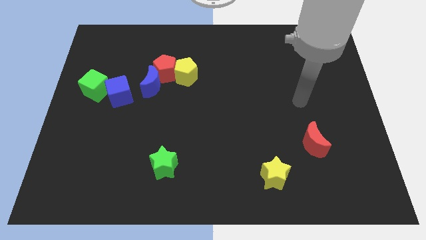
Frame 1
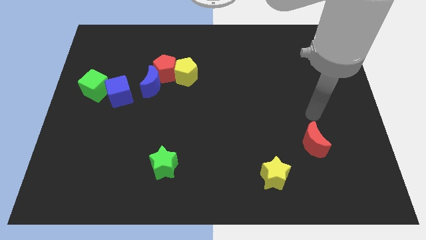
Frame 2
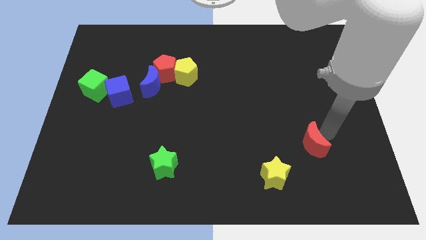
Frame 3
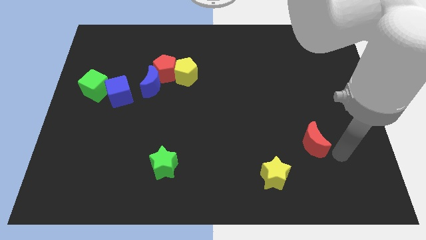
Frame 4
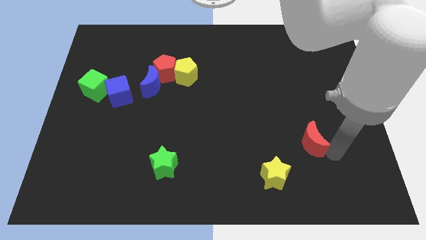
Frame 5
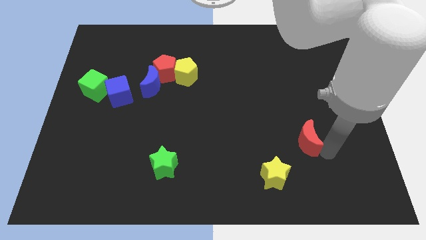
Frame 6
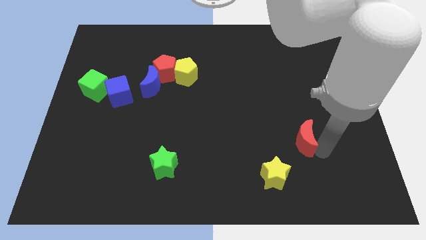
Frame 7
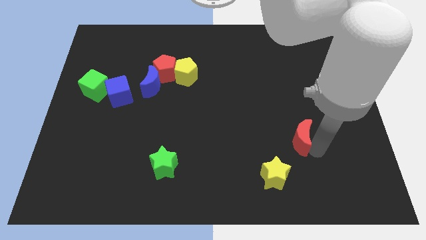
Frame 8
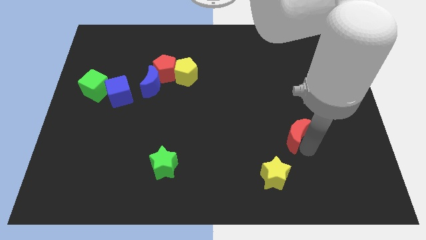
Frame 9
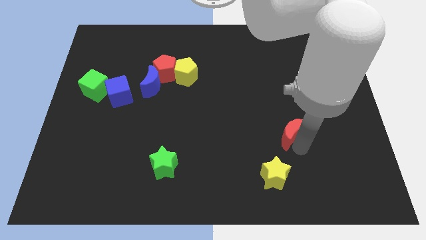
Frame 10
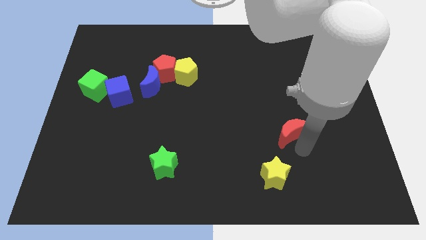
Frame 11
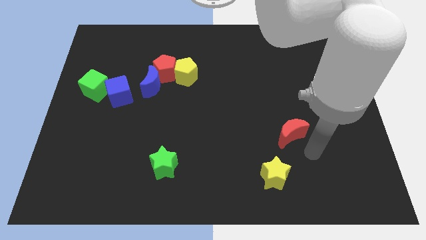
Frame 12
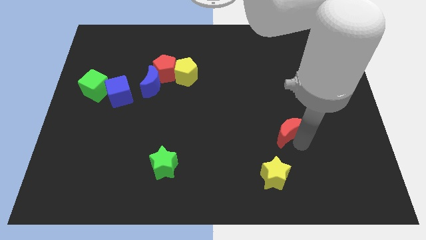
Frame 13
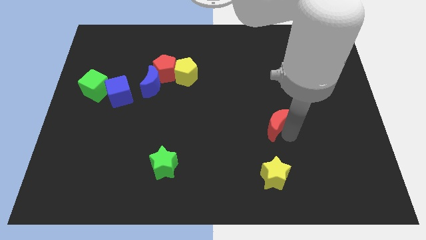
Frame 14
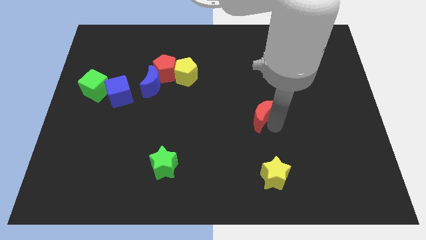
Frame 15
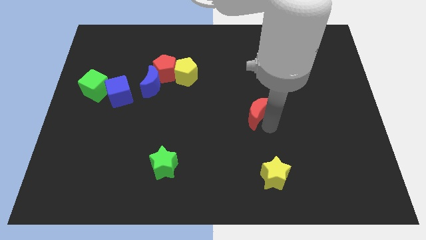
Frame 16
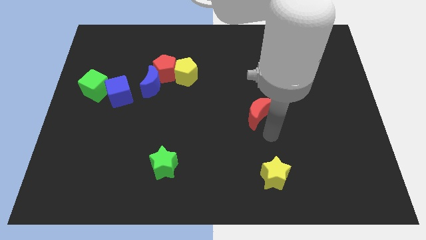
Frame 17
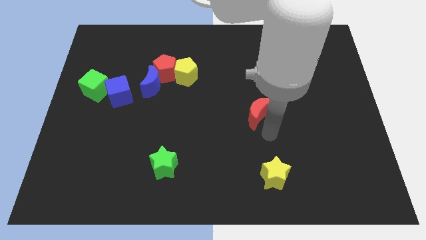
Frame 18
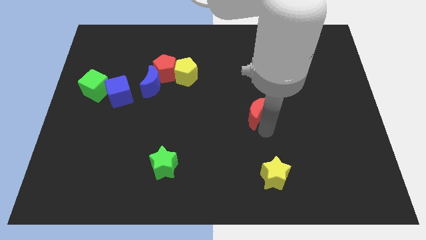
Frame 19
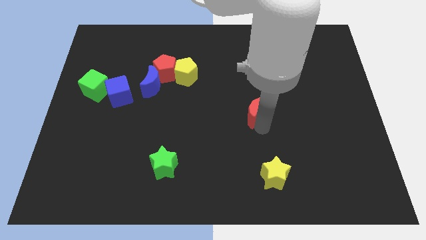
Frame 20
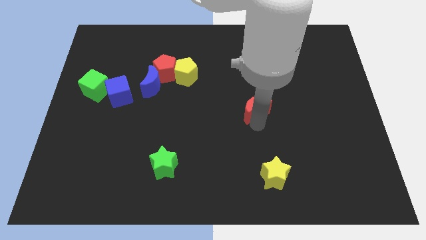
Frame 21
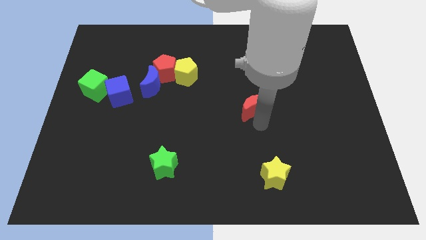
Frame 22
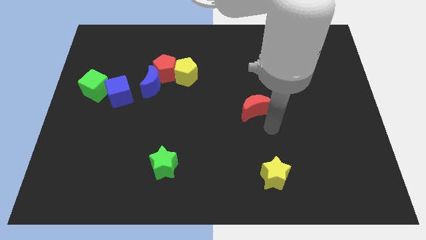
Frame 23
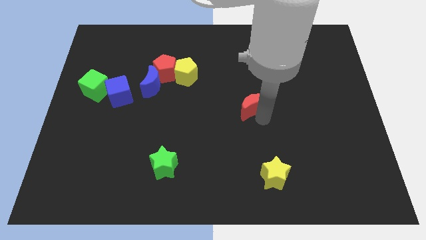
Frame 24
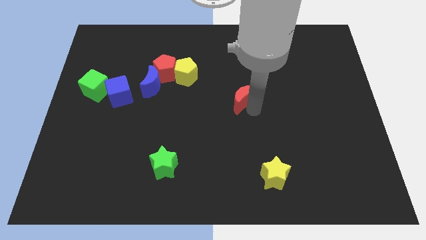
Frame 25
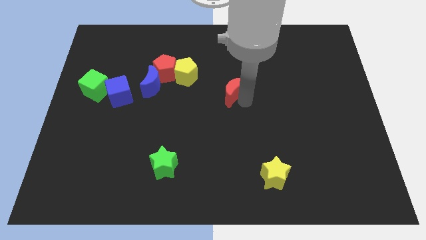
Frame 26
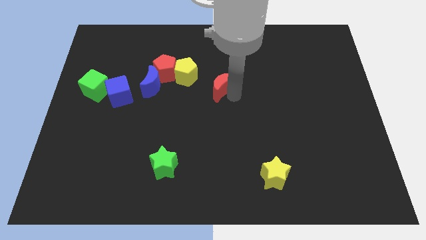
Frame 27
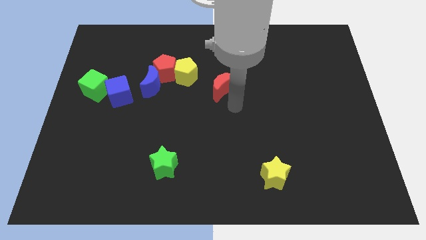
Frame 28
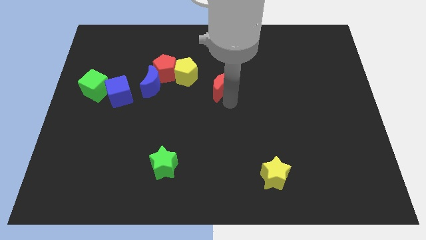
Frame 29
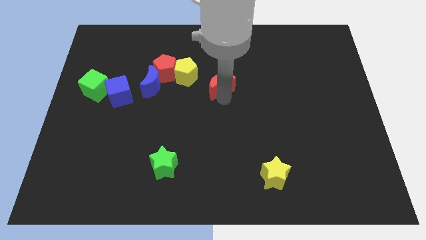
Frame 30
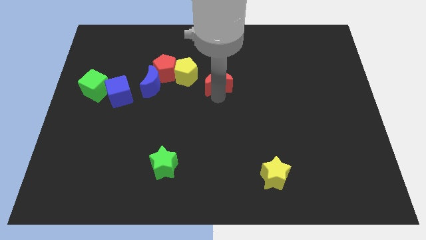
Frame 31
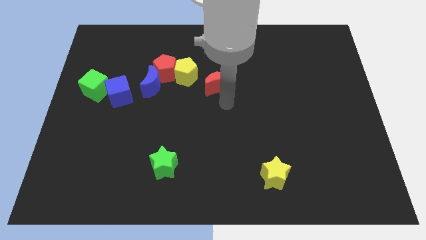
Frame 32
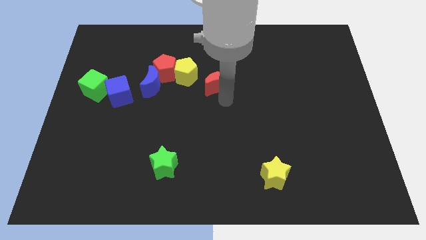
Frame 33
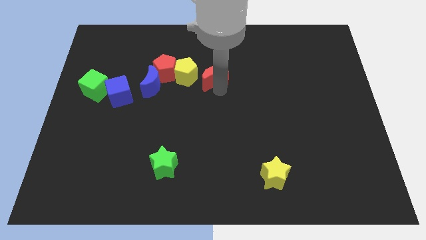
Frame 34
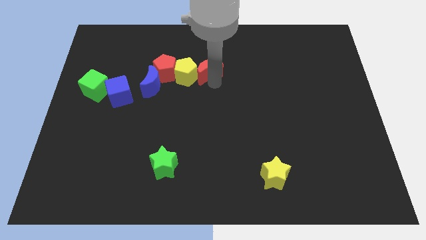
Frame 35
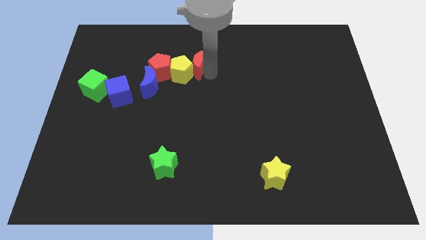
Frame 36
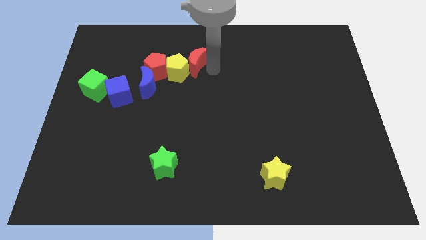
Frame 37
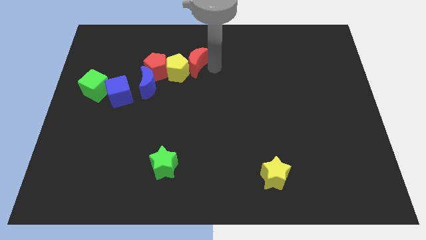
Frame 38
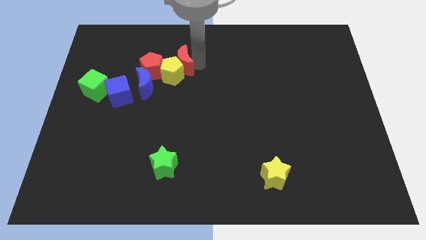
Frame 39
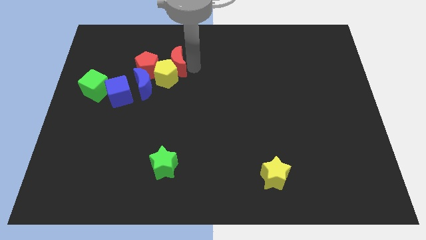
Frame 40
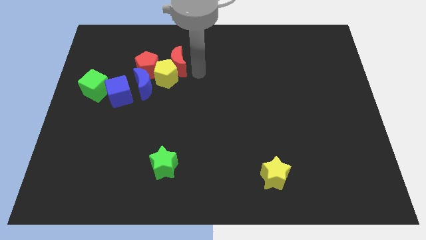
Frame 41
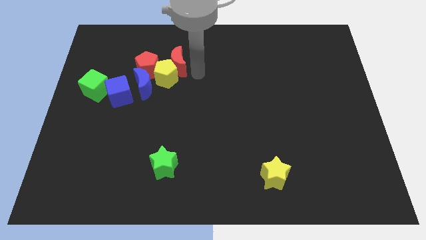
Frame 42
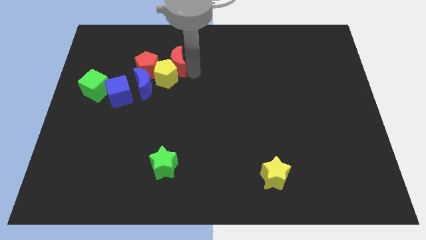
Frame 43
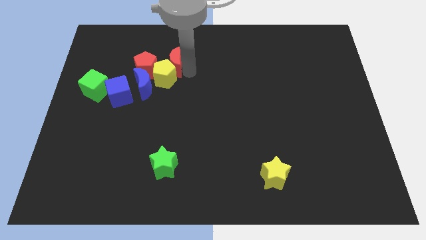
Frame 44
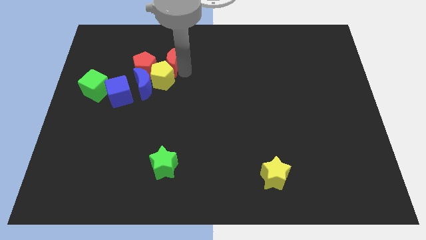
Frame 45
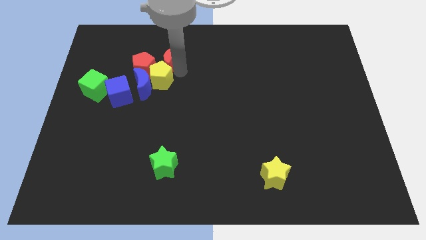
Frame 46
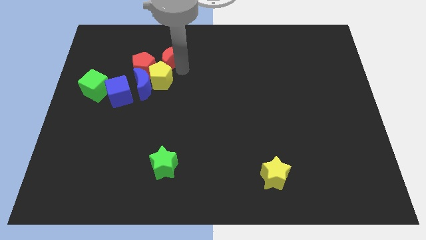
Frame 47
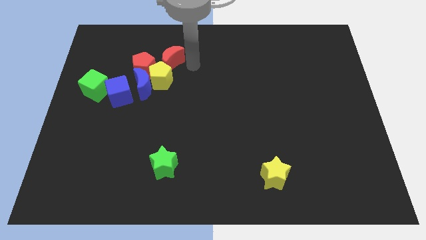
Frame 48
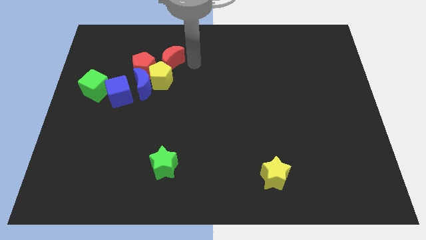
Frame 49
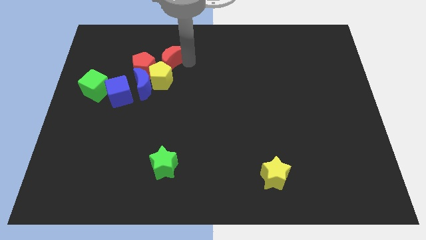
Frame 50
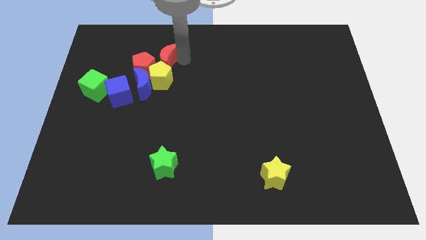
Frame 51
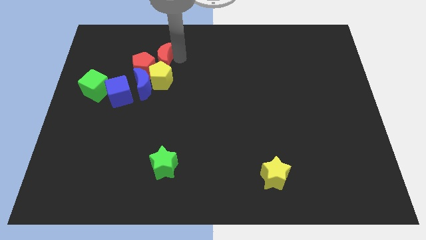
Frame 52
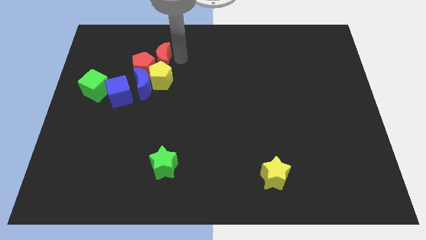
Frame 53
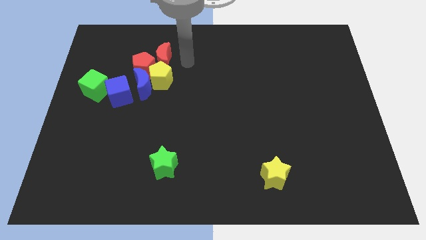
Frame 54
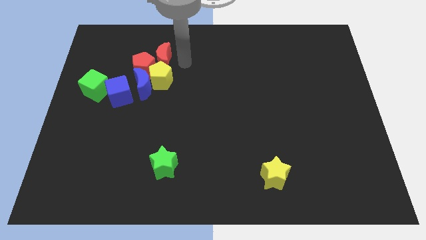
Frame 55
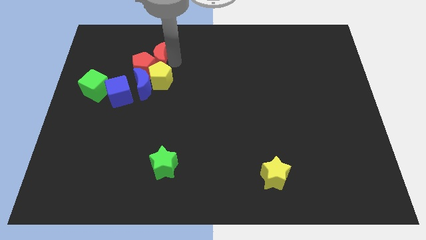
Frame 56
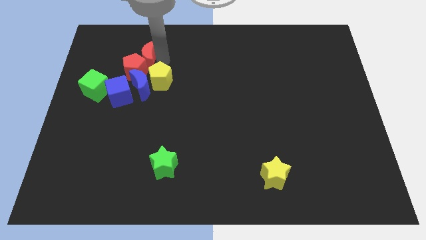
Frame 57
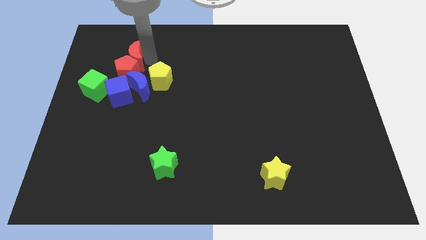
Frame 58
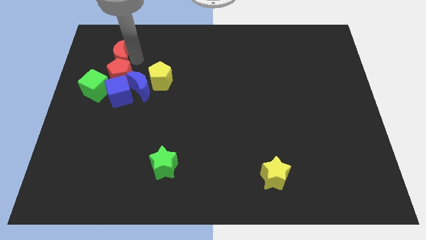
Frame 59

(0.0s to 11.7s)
put the red moon to the top side of the green cube

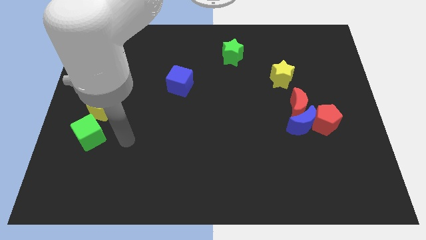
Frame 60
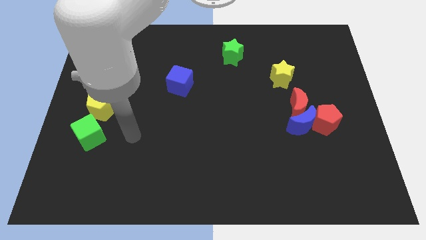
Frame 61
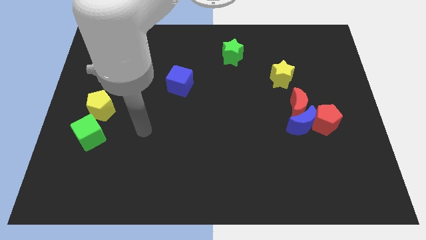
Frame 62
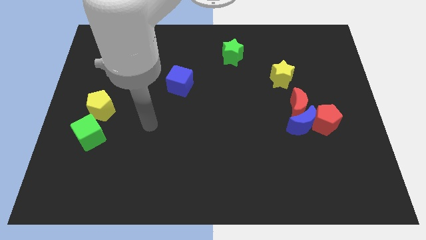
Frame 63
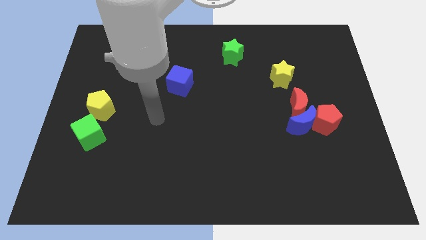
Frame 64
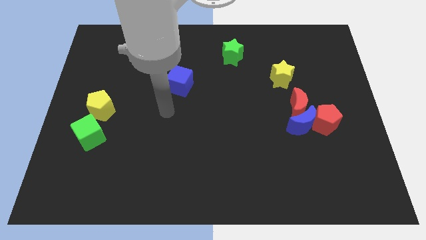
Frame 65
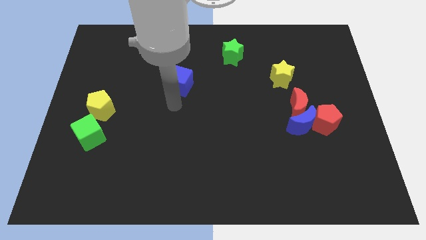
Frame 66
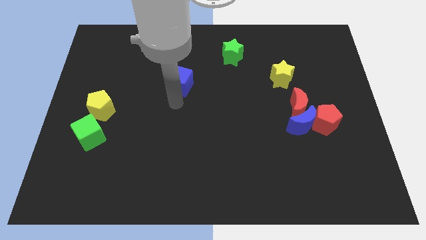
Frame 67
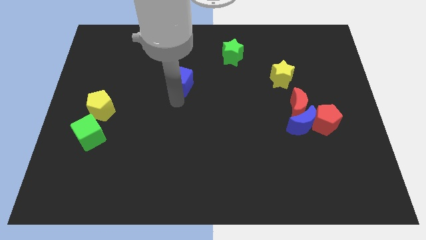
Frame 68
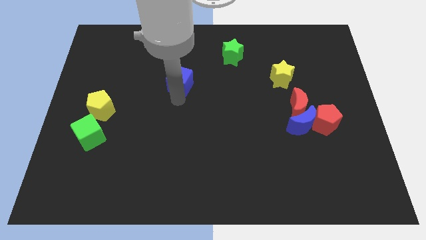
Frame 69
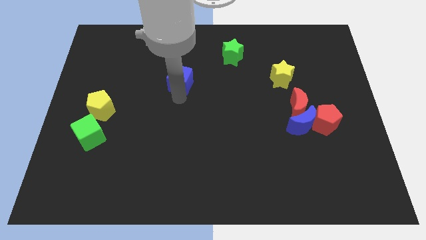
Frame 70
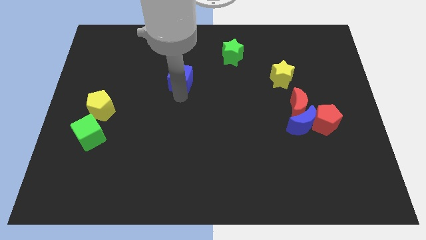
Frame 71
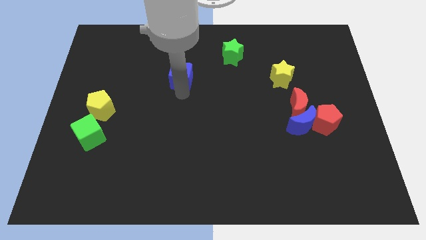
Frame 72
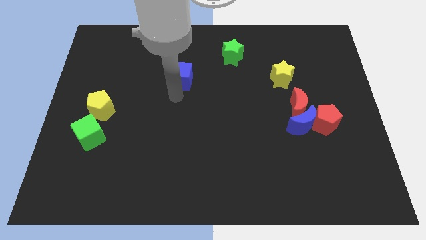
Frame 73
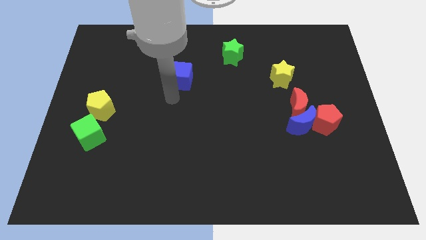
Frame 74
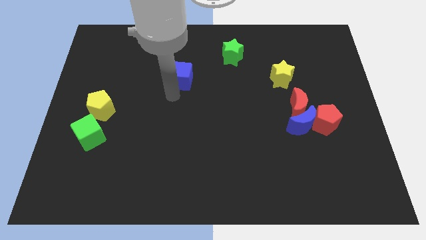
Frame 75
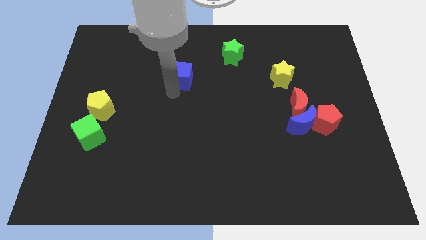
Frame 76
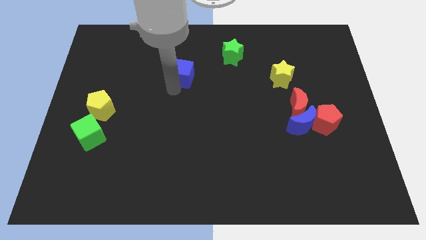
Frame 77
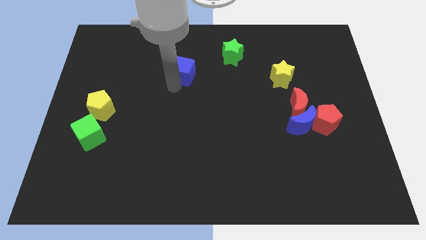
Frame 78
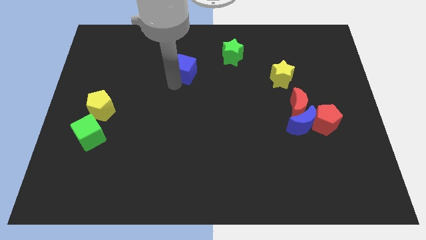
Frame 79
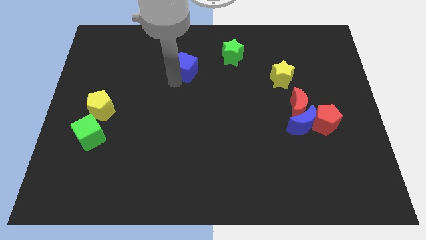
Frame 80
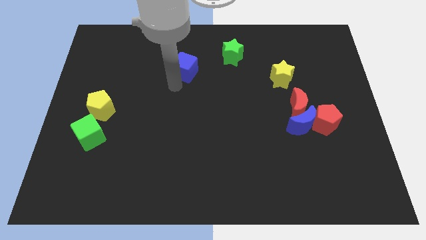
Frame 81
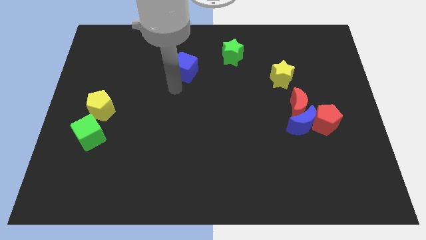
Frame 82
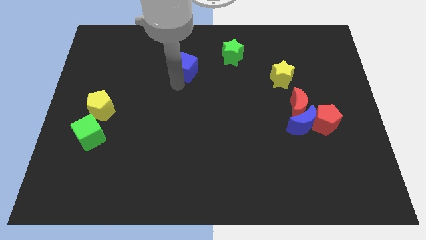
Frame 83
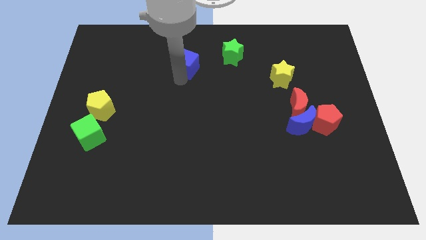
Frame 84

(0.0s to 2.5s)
move the blue cube just left of the green star
